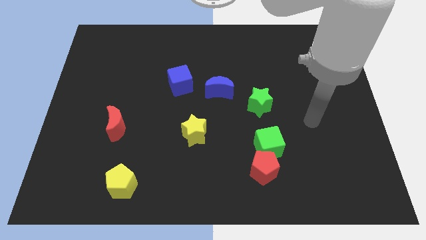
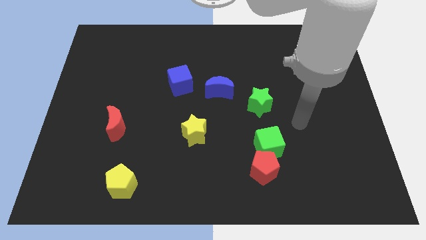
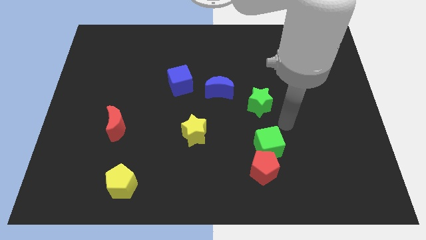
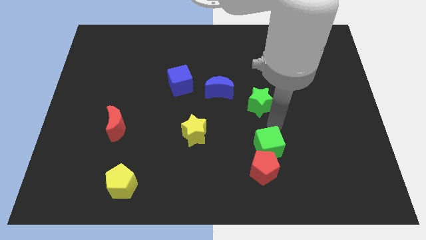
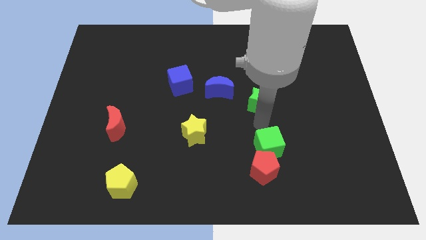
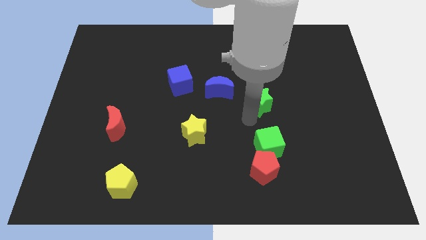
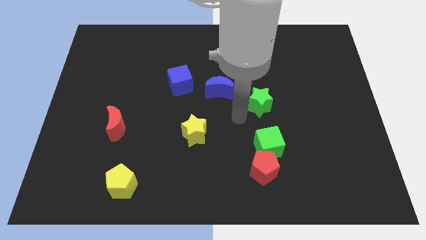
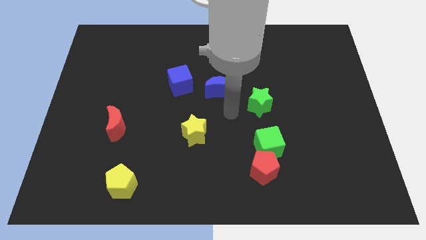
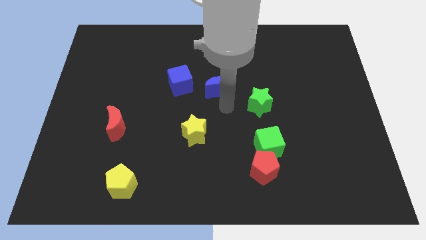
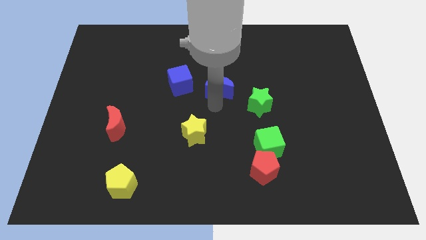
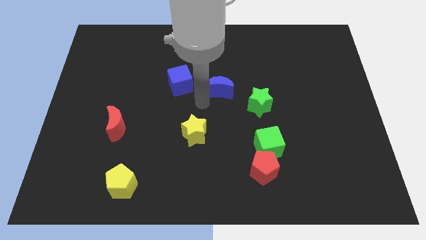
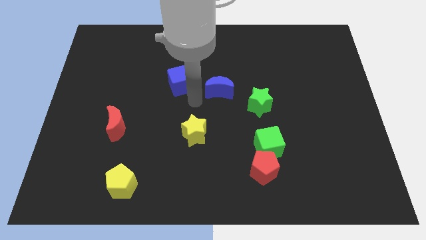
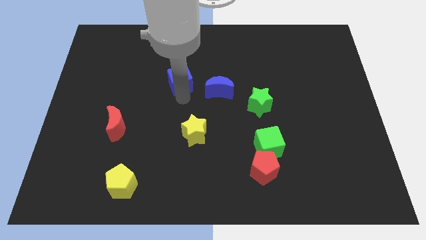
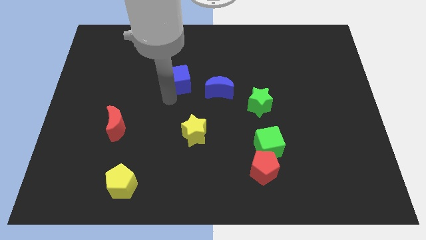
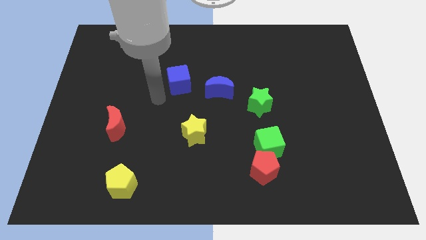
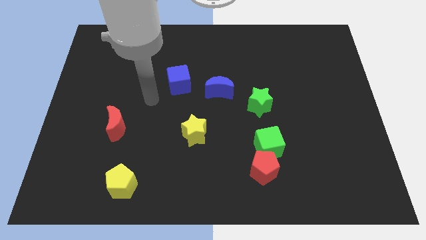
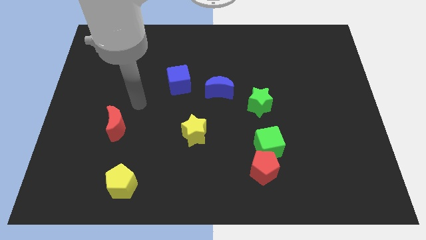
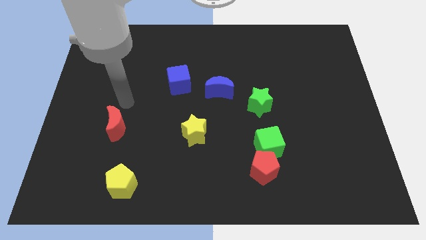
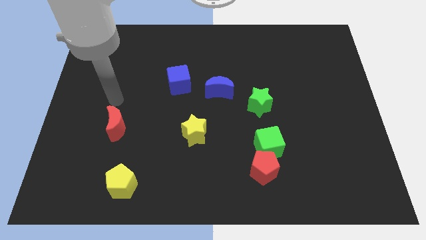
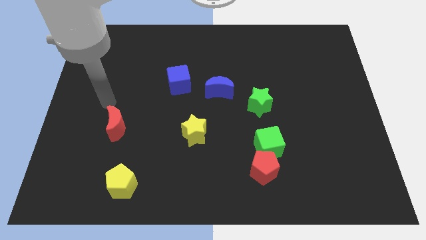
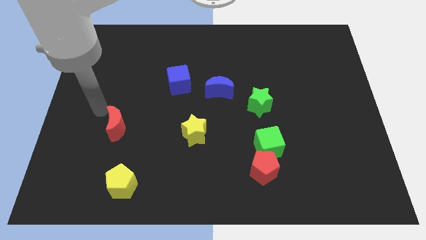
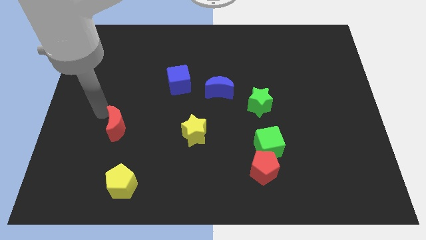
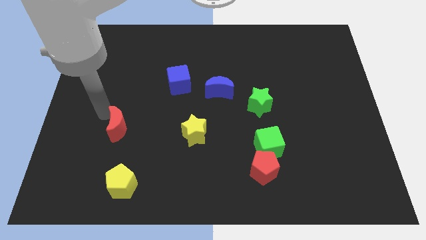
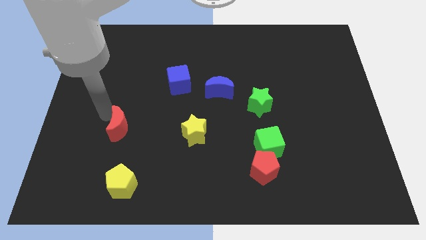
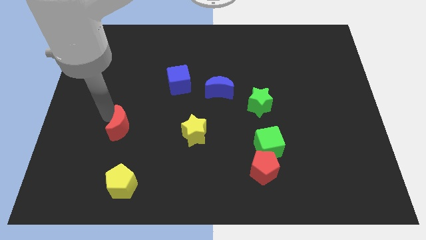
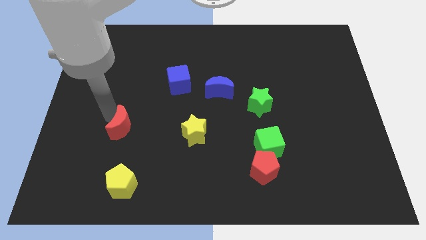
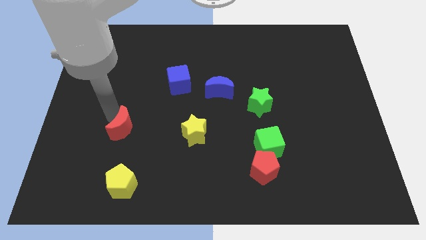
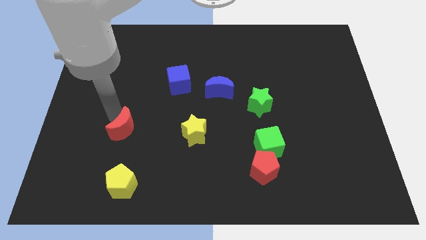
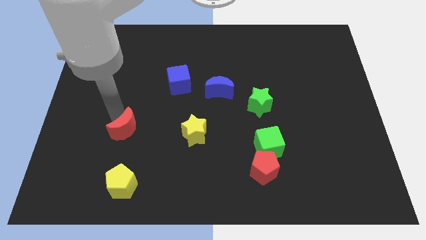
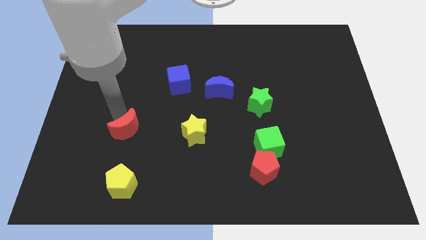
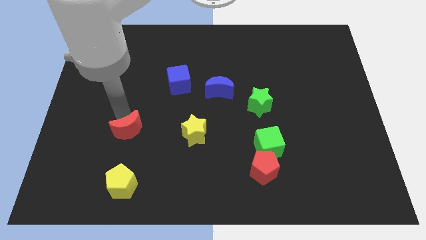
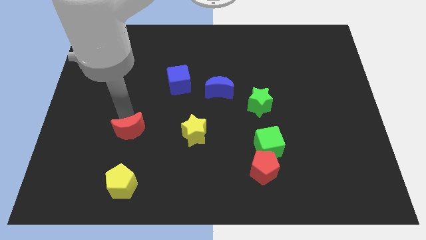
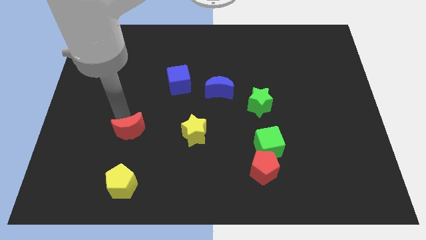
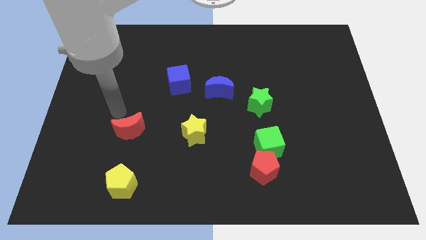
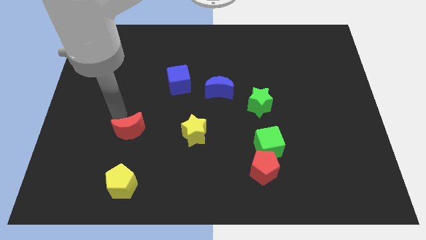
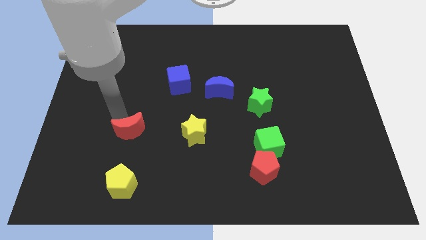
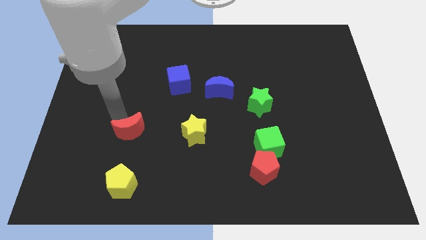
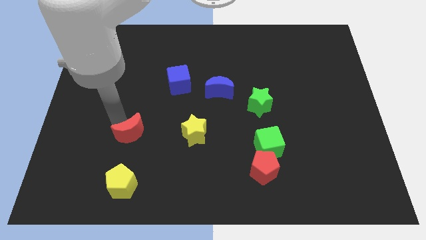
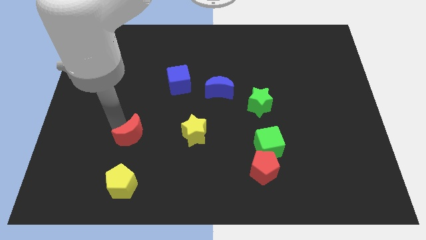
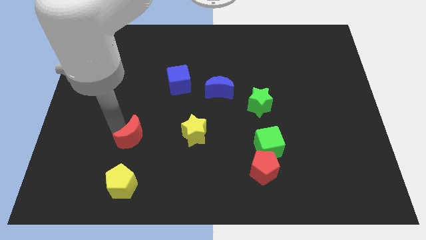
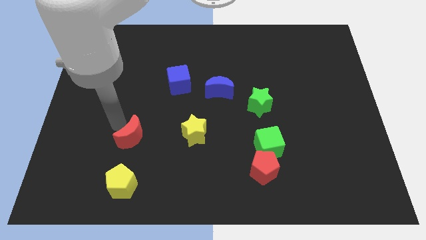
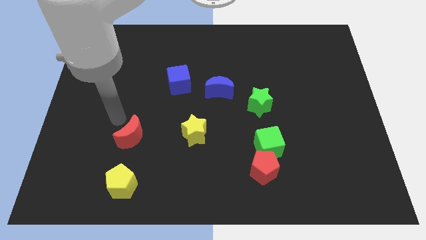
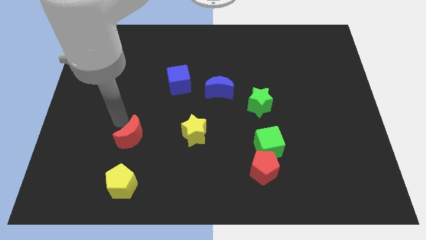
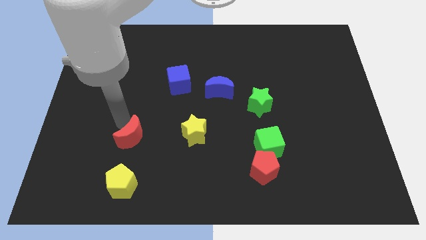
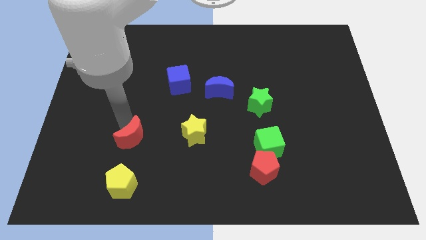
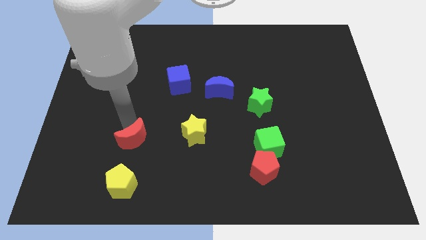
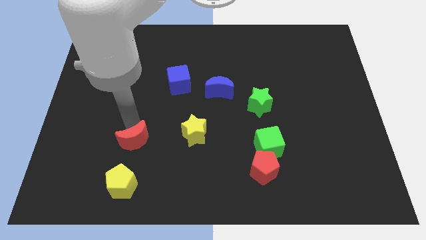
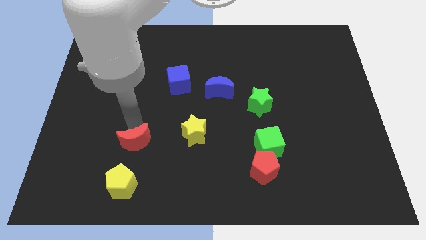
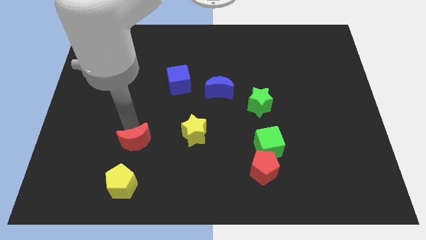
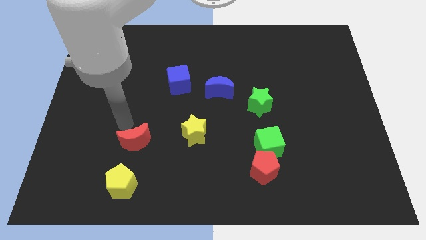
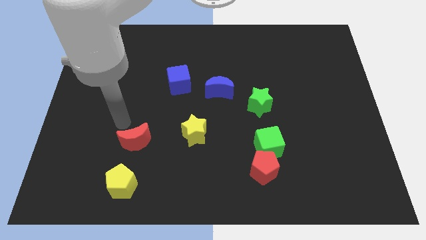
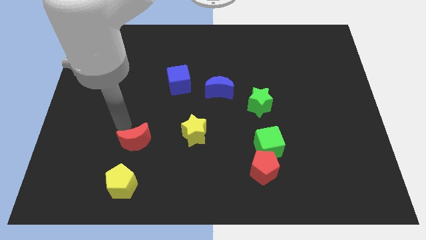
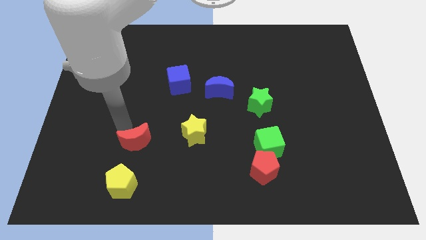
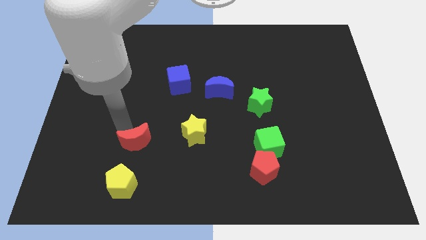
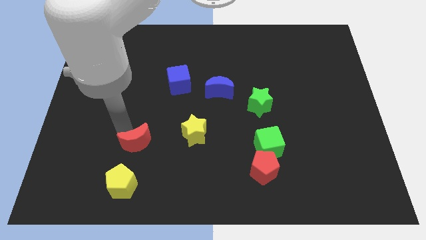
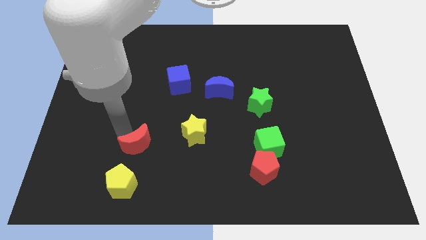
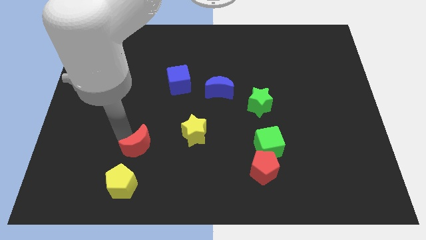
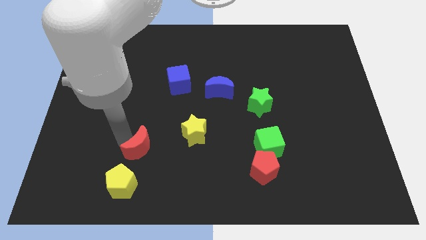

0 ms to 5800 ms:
slide the red moon to the top right side of the yellow pentagon

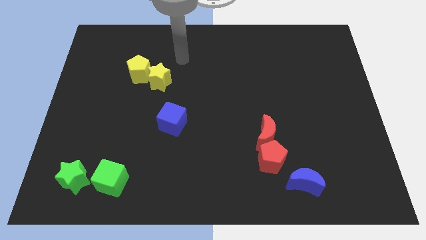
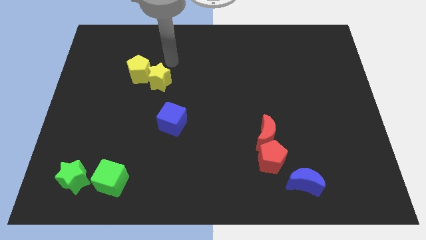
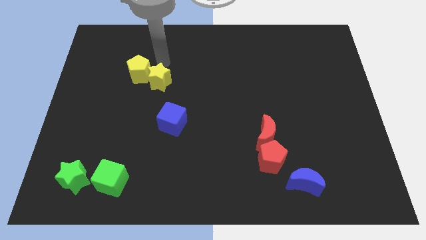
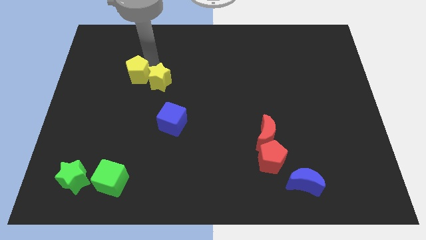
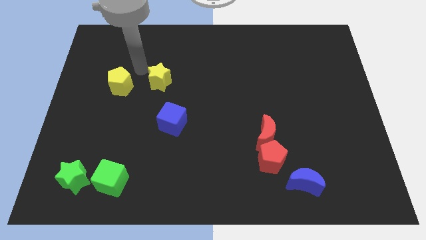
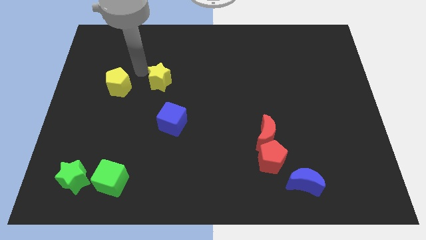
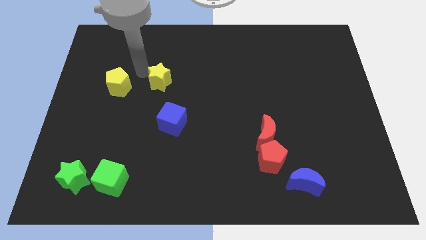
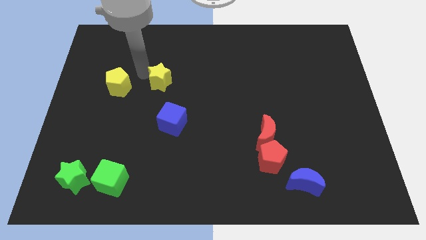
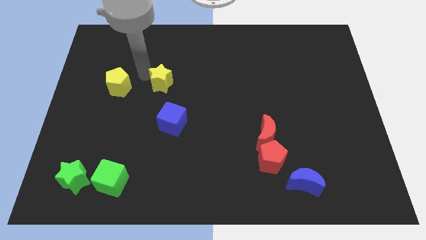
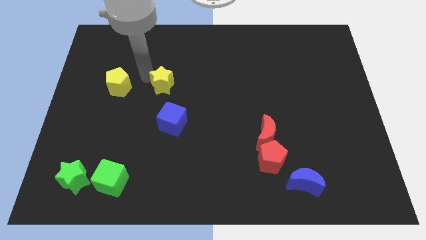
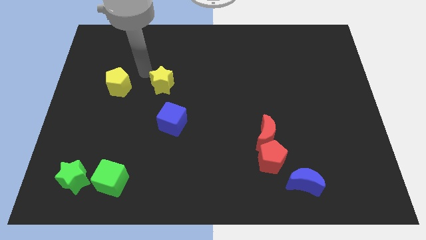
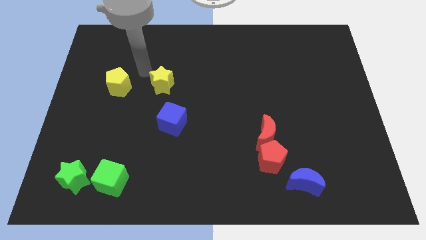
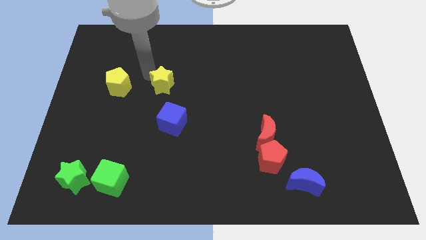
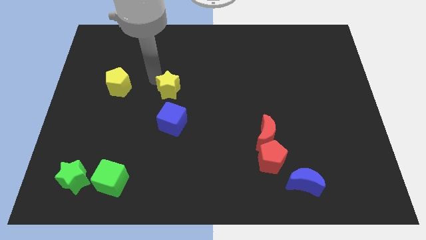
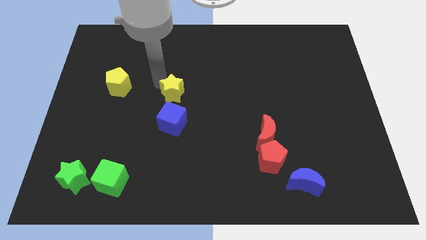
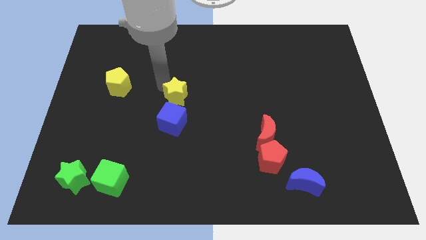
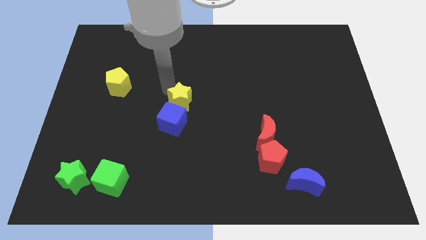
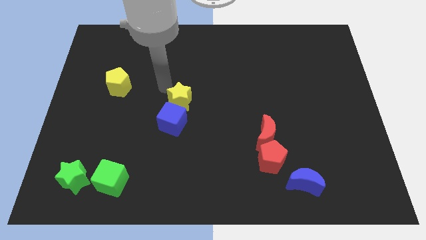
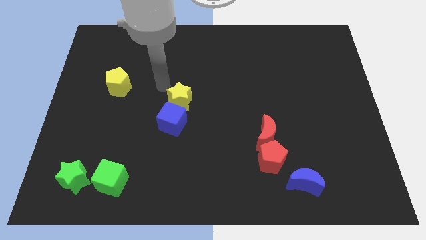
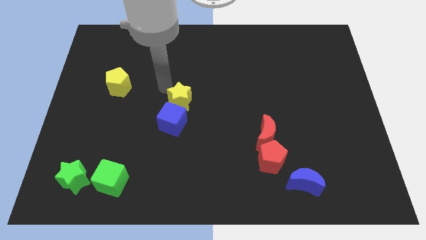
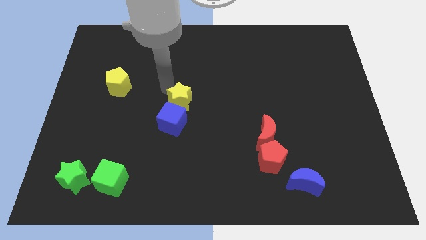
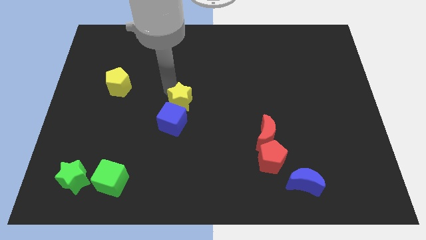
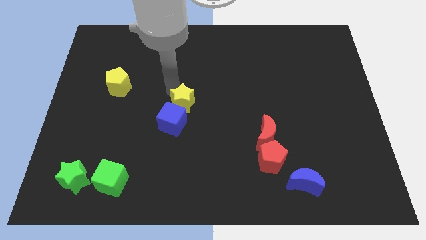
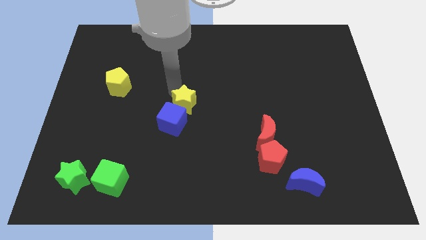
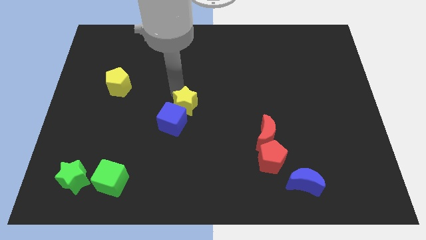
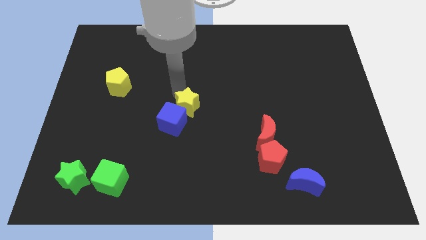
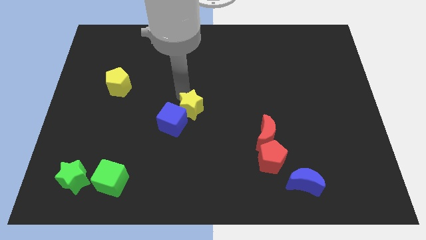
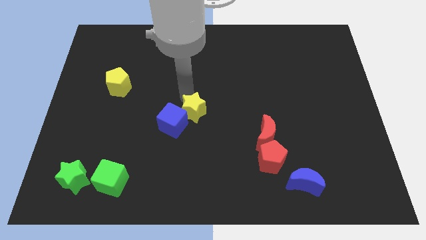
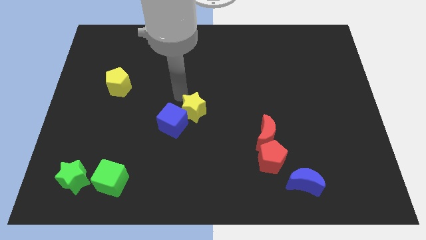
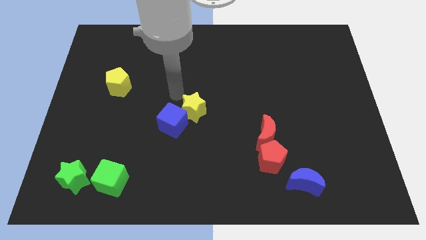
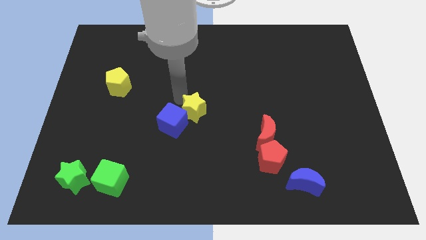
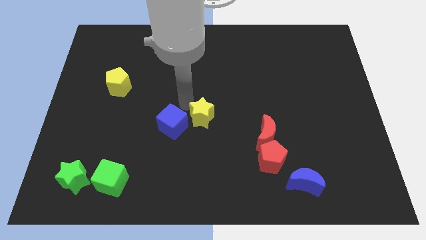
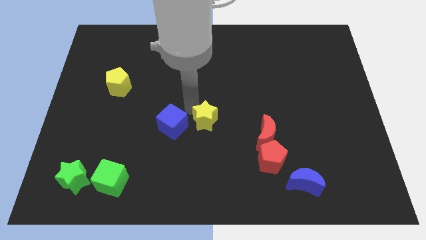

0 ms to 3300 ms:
put the yellow star to the left of the red moon
